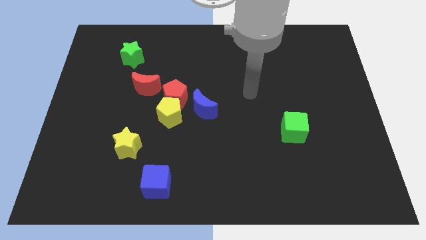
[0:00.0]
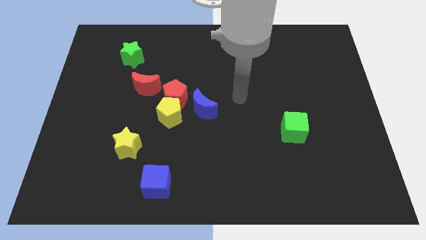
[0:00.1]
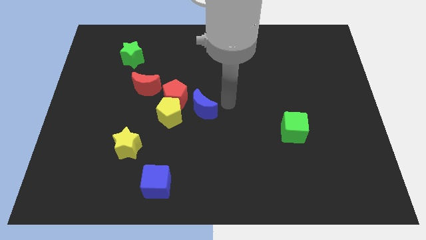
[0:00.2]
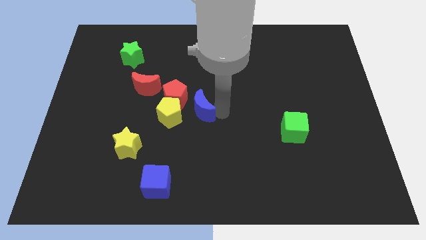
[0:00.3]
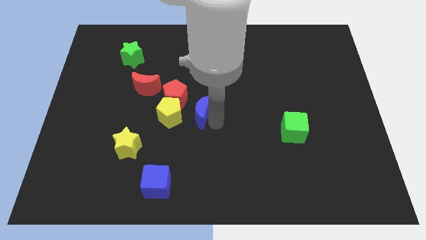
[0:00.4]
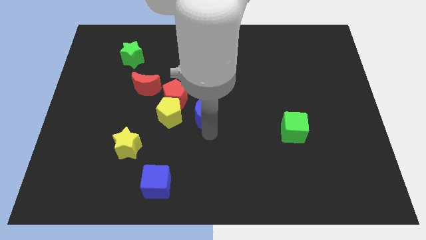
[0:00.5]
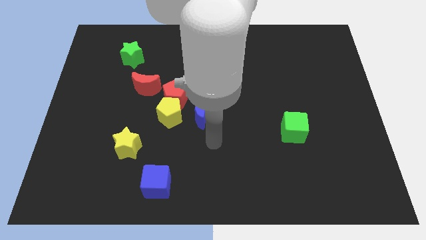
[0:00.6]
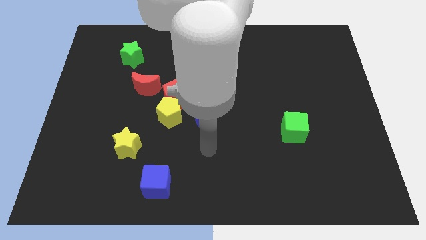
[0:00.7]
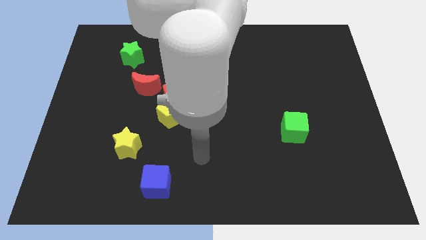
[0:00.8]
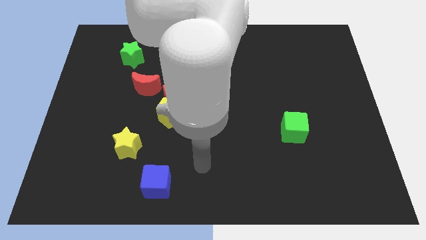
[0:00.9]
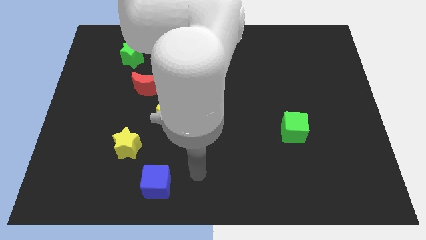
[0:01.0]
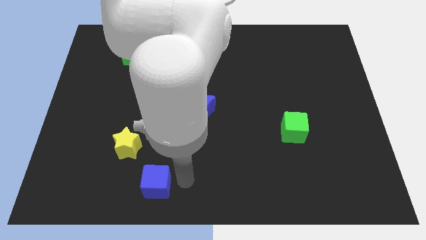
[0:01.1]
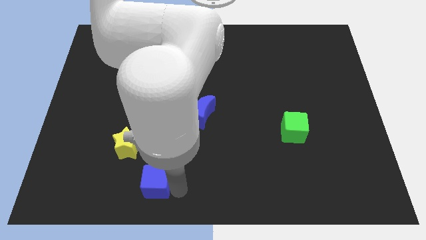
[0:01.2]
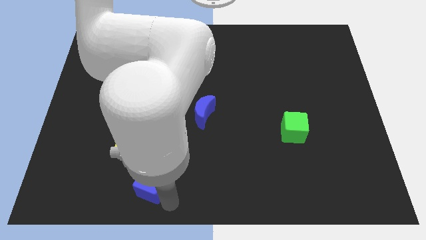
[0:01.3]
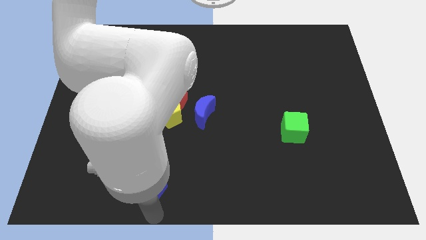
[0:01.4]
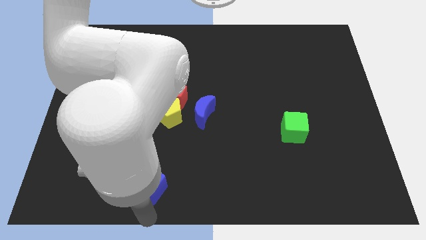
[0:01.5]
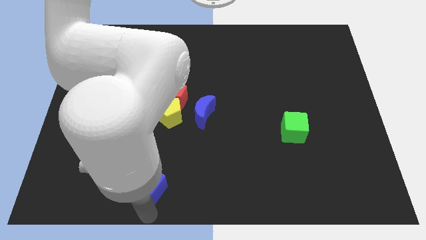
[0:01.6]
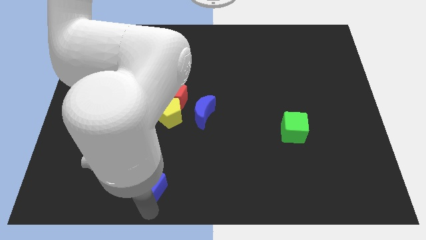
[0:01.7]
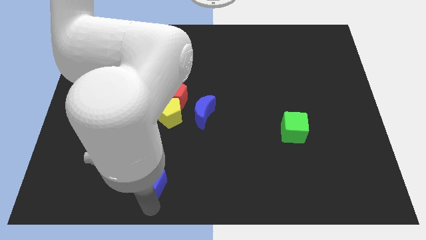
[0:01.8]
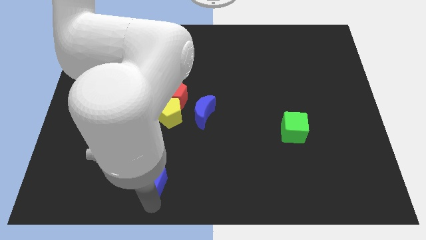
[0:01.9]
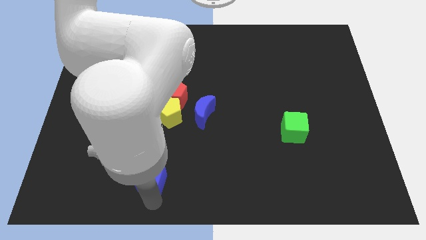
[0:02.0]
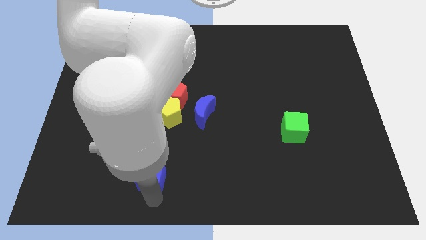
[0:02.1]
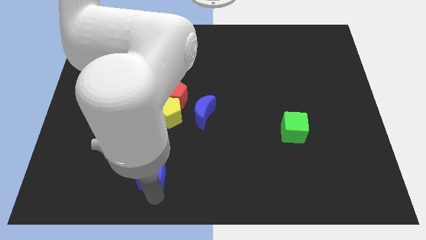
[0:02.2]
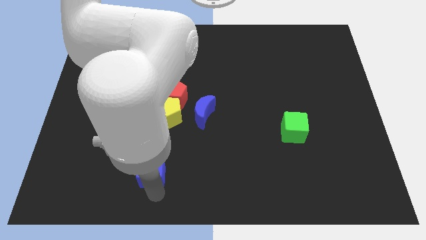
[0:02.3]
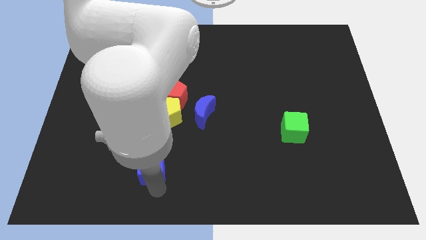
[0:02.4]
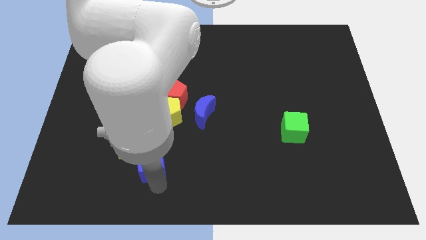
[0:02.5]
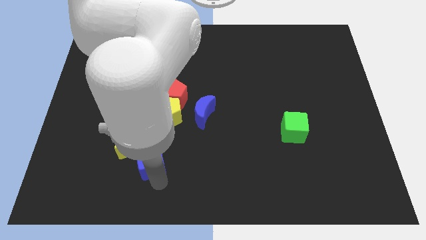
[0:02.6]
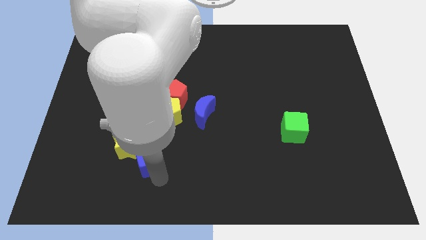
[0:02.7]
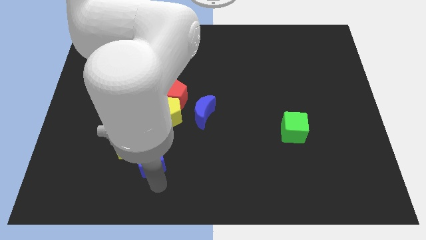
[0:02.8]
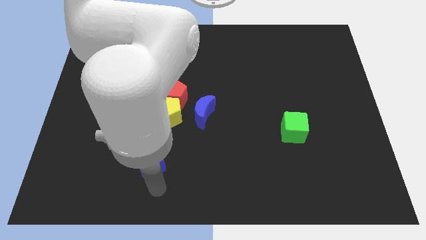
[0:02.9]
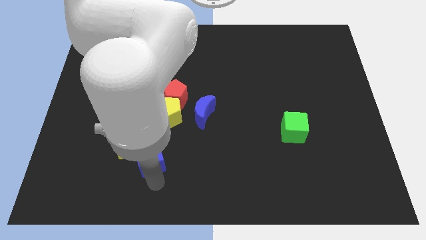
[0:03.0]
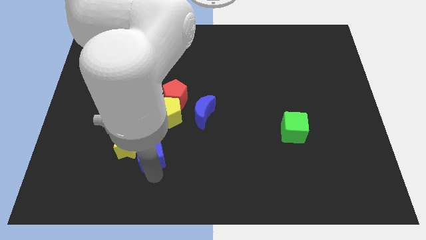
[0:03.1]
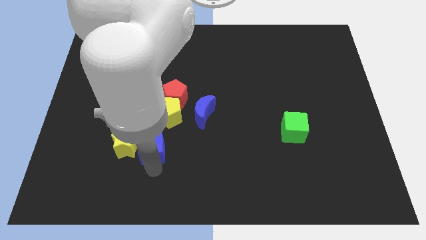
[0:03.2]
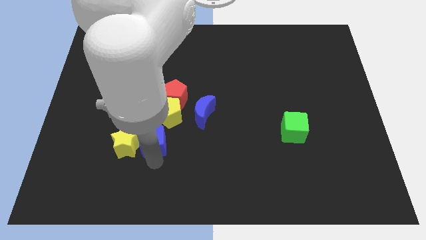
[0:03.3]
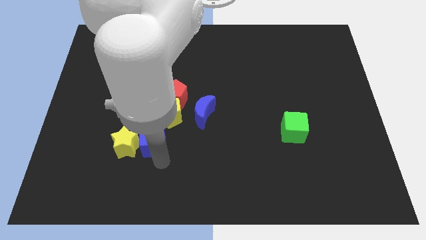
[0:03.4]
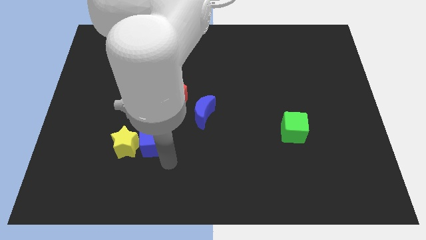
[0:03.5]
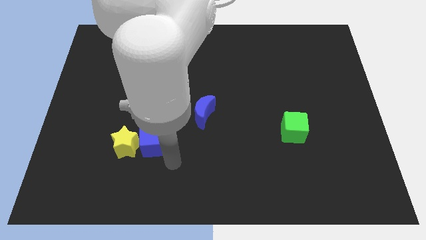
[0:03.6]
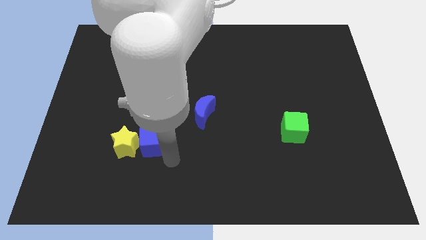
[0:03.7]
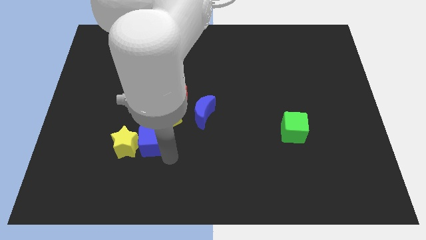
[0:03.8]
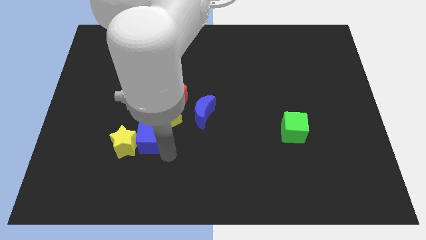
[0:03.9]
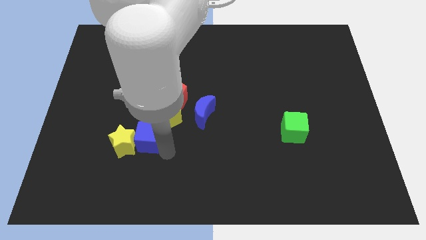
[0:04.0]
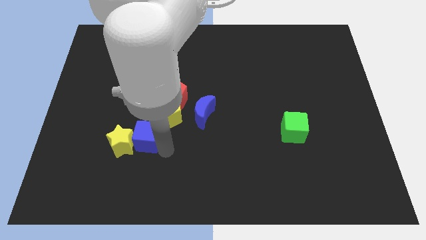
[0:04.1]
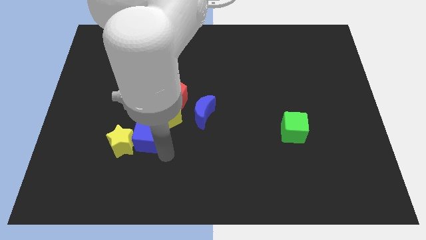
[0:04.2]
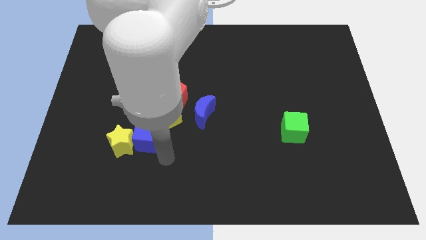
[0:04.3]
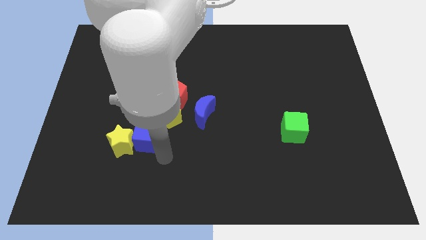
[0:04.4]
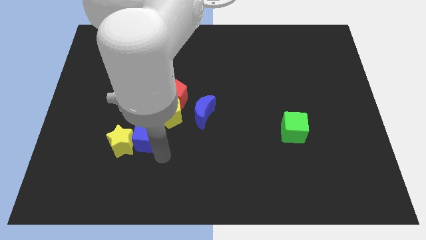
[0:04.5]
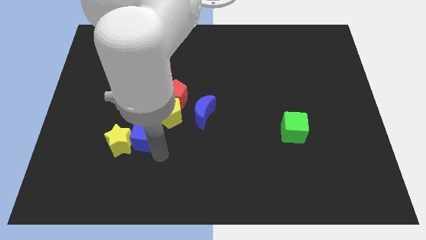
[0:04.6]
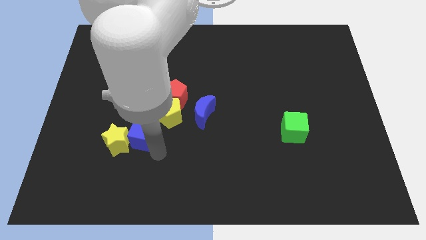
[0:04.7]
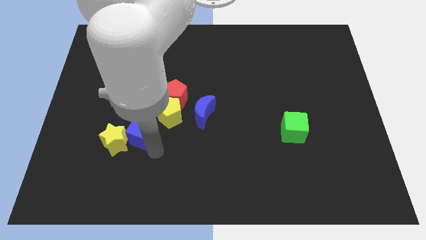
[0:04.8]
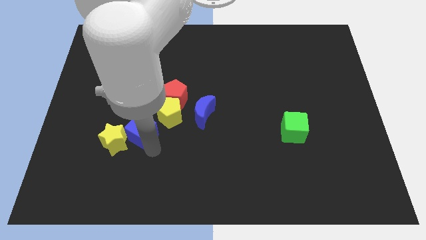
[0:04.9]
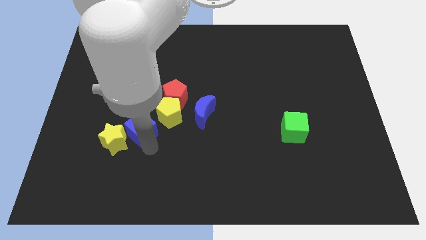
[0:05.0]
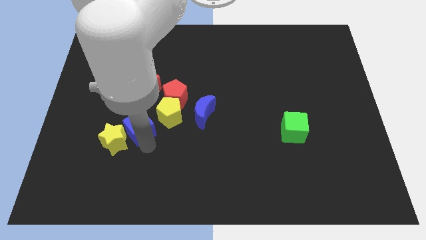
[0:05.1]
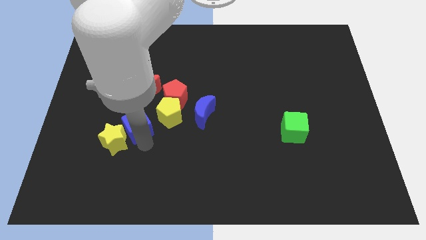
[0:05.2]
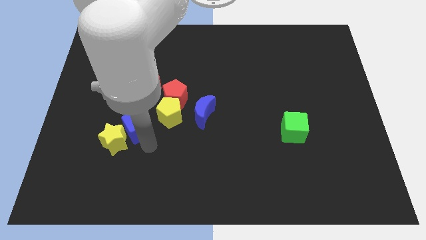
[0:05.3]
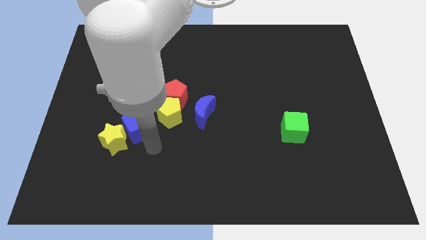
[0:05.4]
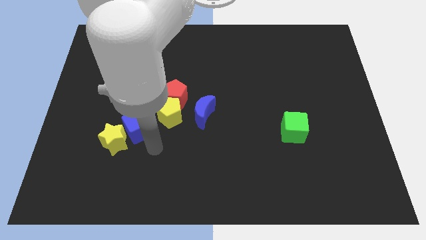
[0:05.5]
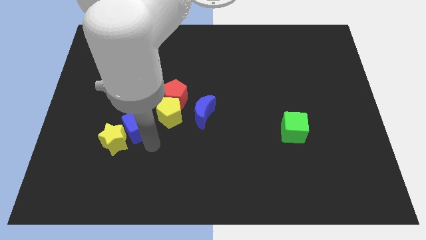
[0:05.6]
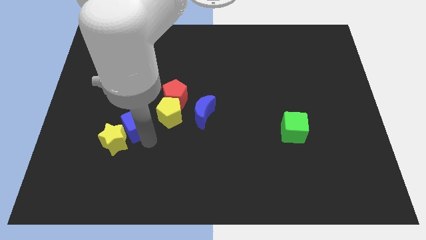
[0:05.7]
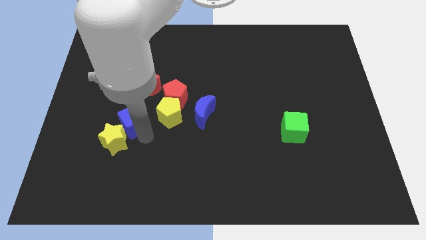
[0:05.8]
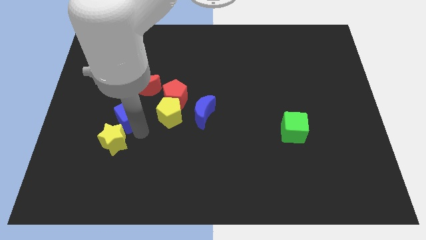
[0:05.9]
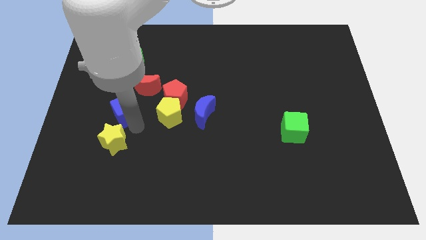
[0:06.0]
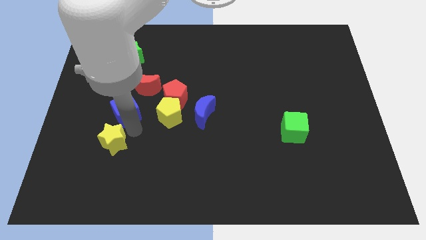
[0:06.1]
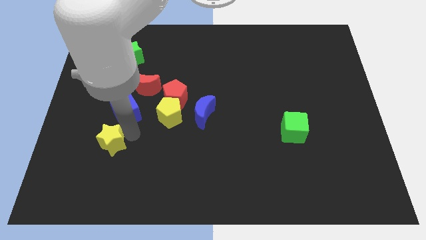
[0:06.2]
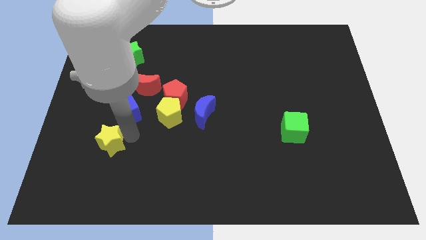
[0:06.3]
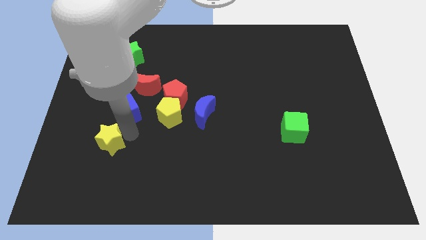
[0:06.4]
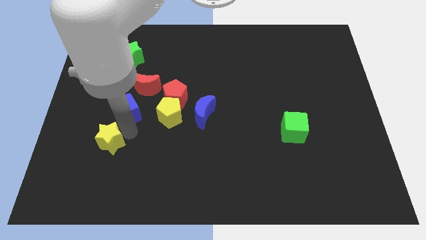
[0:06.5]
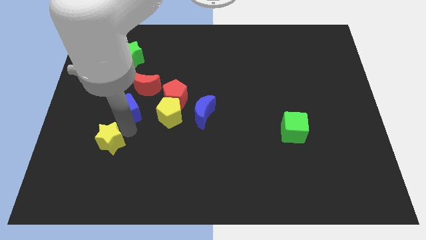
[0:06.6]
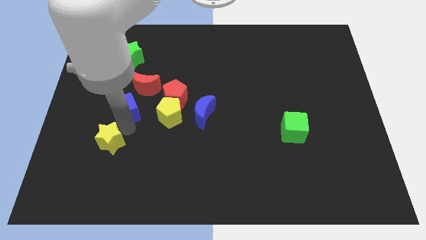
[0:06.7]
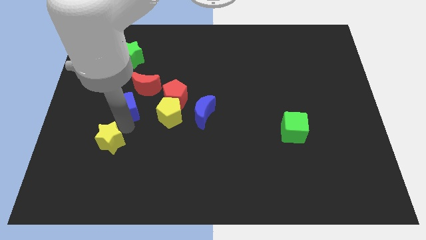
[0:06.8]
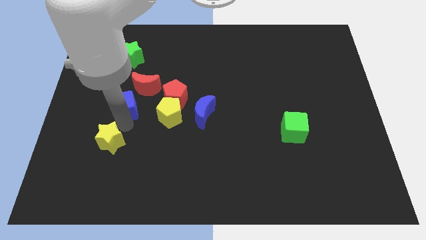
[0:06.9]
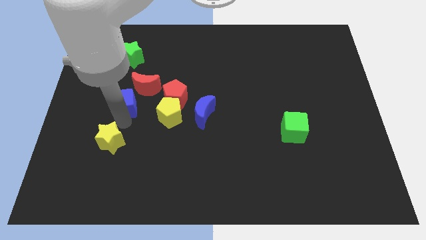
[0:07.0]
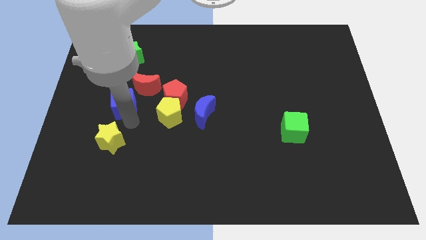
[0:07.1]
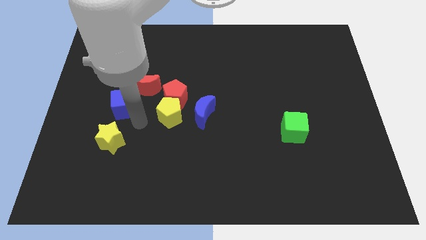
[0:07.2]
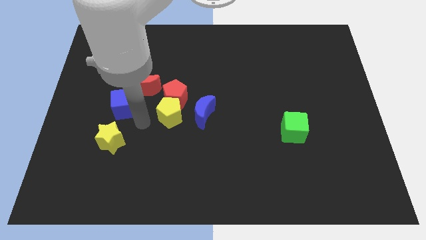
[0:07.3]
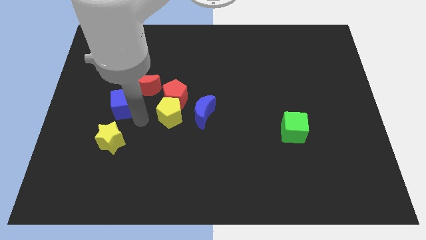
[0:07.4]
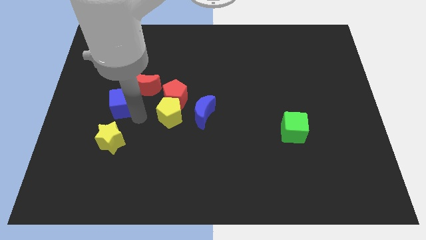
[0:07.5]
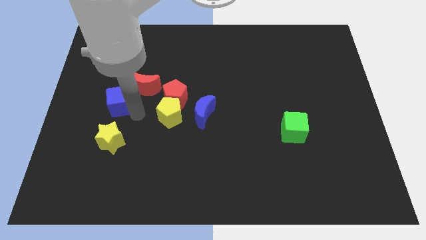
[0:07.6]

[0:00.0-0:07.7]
slide the blue cube to the left side of the red moon
